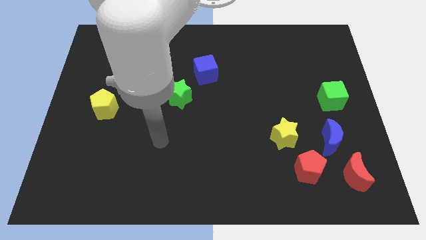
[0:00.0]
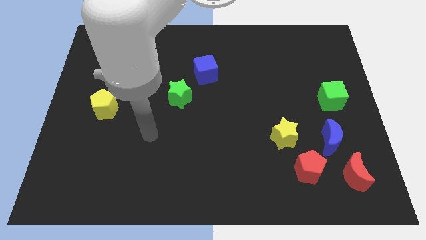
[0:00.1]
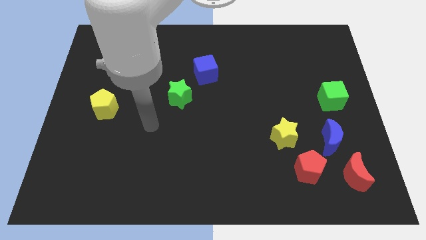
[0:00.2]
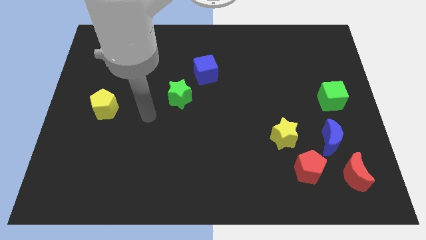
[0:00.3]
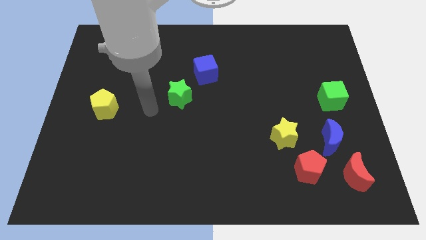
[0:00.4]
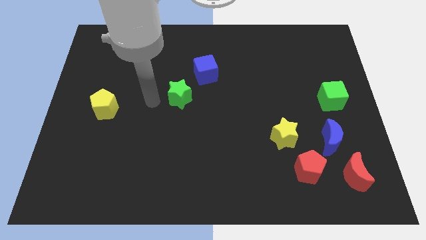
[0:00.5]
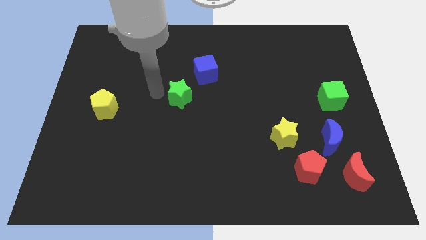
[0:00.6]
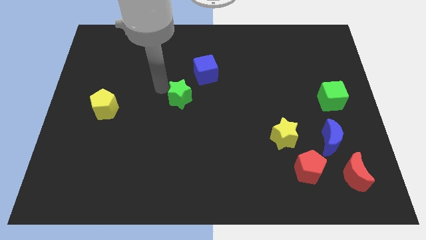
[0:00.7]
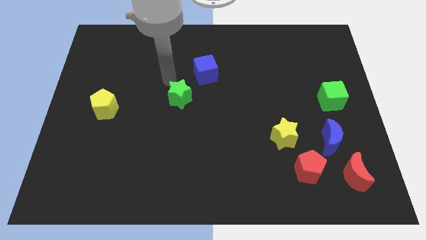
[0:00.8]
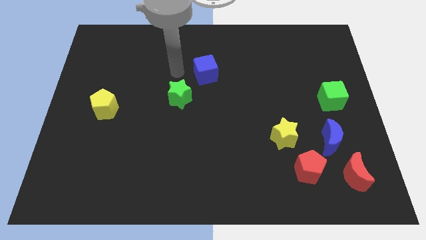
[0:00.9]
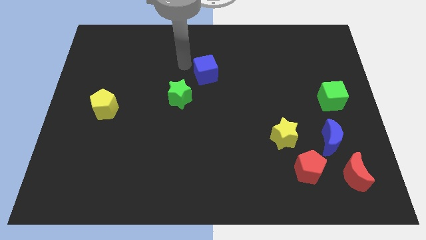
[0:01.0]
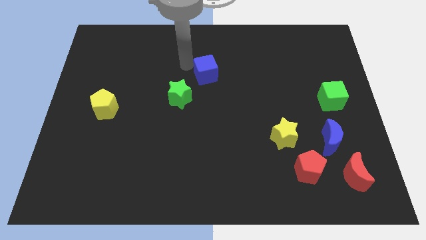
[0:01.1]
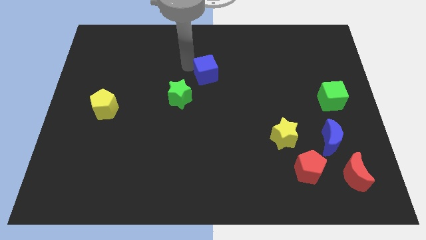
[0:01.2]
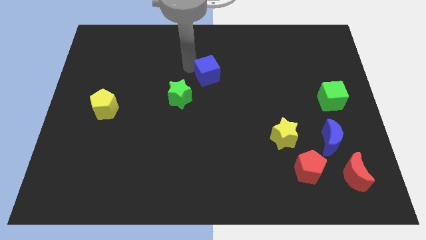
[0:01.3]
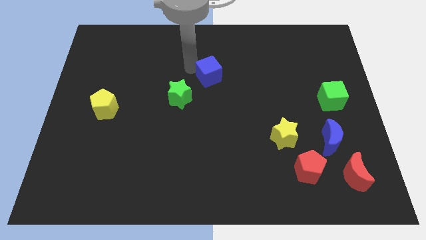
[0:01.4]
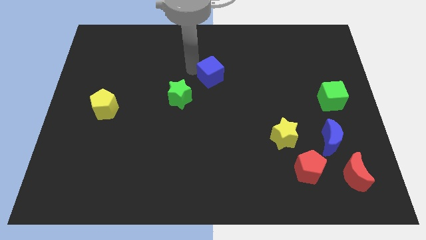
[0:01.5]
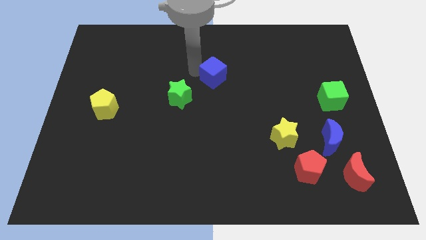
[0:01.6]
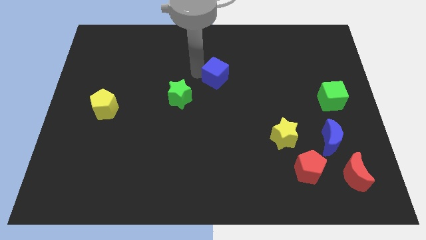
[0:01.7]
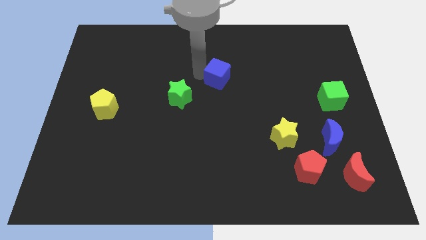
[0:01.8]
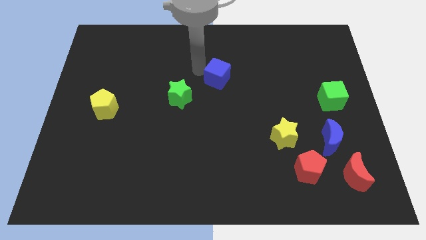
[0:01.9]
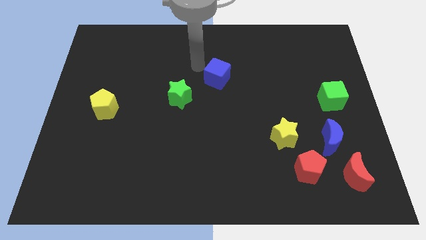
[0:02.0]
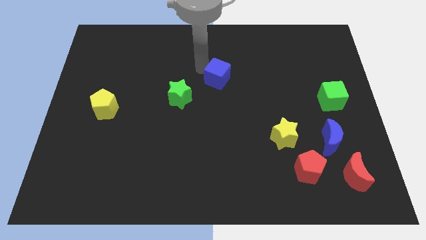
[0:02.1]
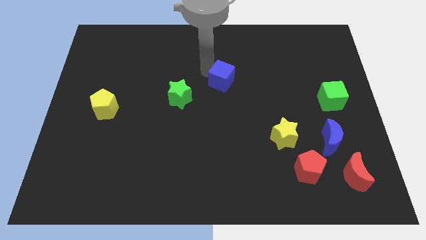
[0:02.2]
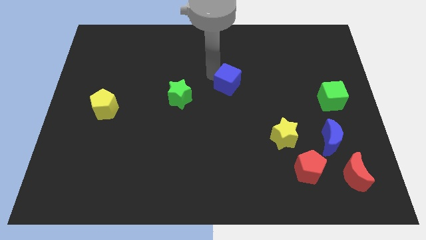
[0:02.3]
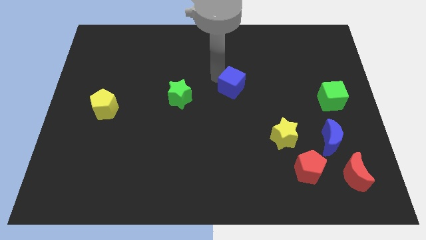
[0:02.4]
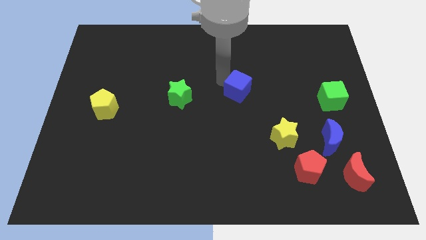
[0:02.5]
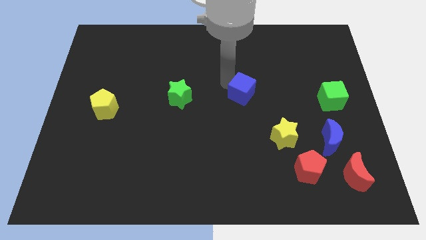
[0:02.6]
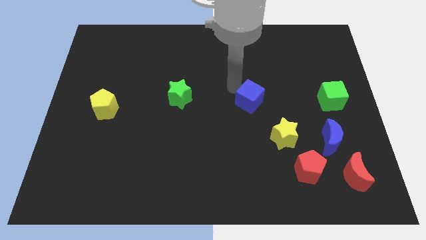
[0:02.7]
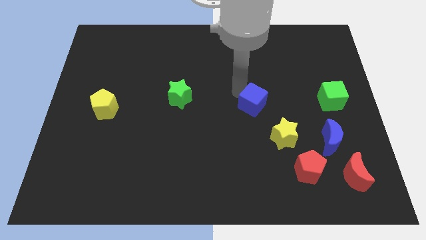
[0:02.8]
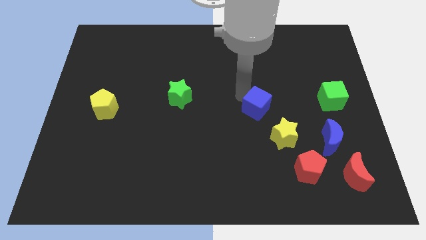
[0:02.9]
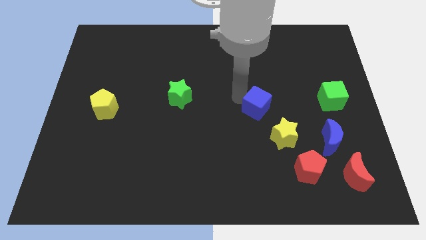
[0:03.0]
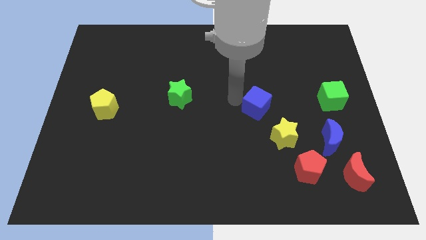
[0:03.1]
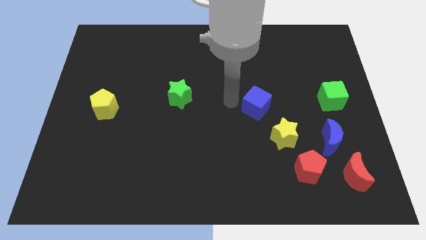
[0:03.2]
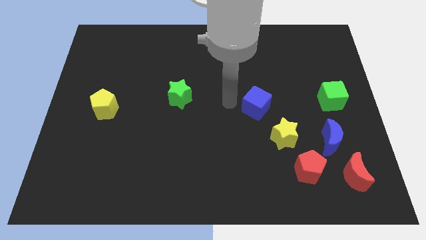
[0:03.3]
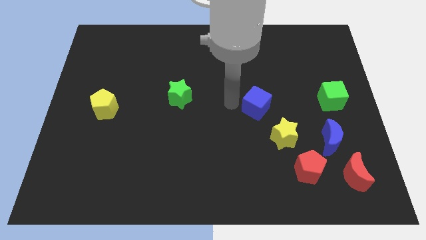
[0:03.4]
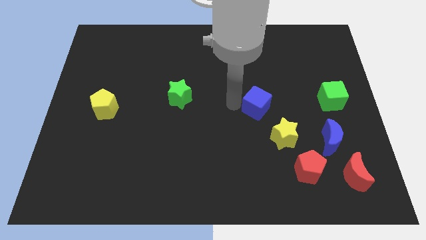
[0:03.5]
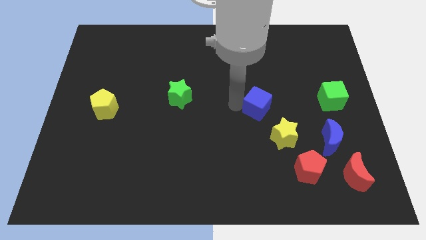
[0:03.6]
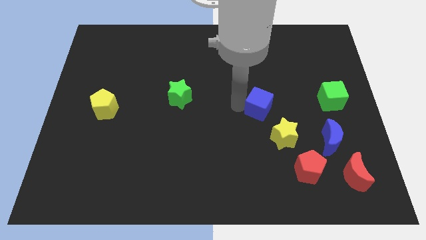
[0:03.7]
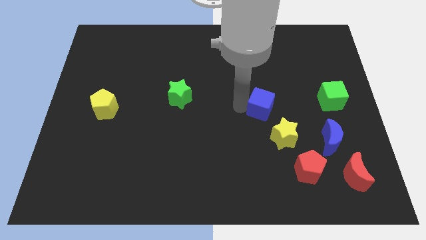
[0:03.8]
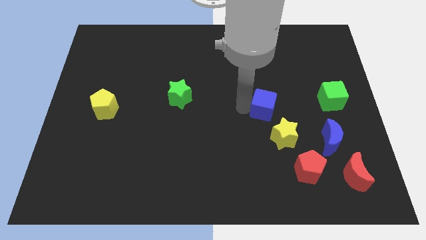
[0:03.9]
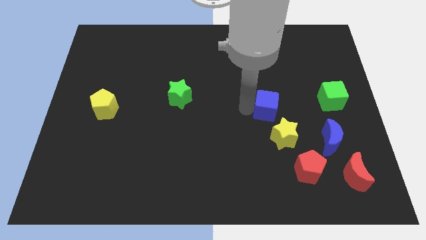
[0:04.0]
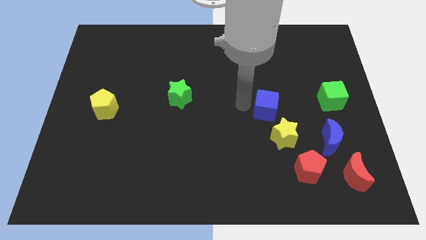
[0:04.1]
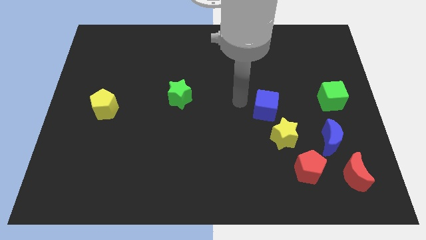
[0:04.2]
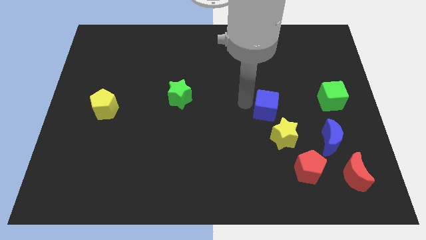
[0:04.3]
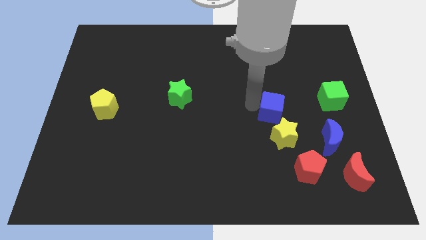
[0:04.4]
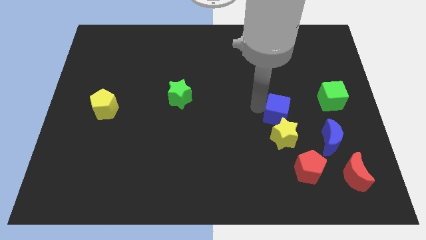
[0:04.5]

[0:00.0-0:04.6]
move the blue cube diagonally downwards and right

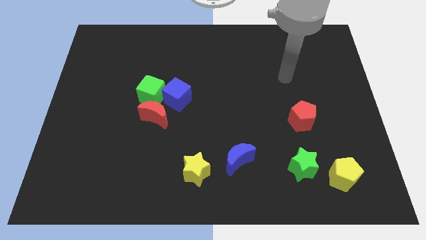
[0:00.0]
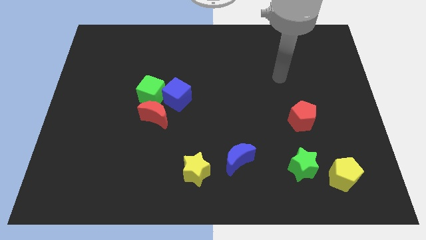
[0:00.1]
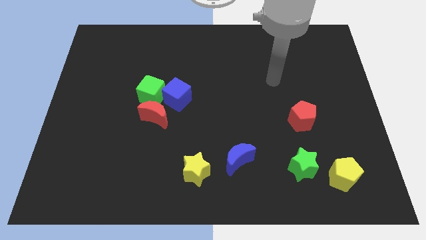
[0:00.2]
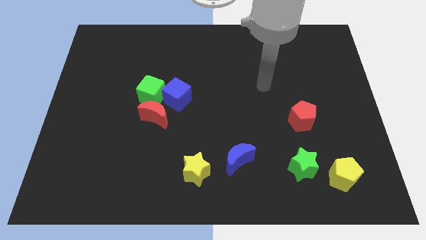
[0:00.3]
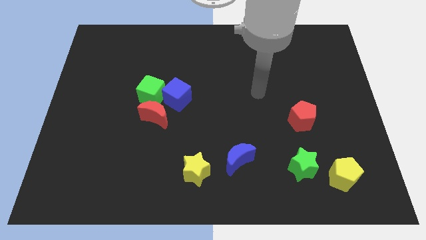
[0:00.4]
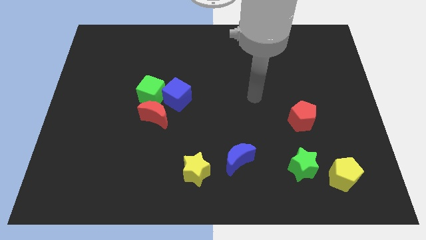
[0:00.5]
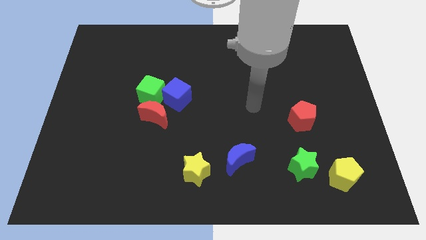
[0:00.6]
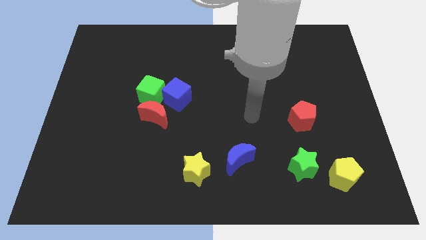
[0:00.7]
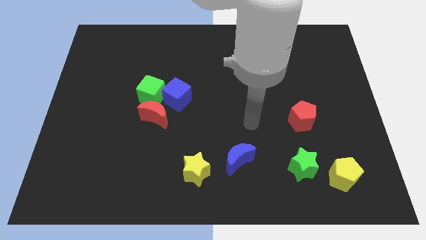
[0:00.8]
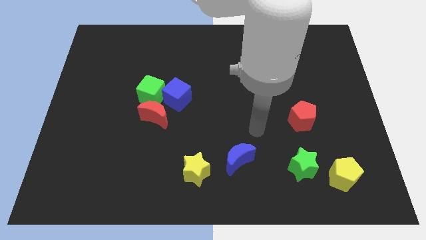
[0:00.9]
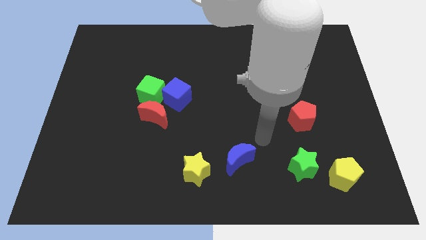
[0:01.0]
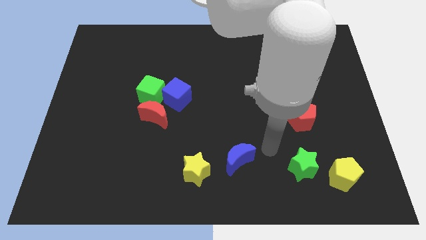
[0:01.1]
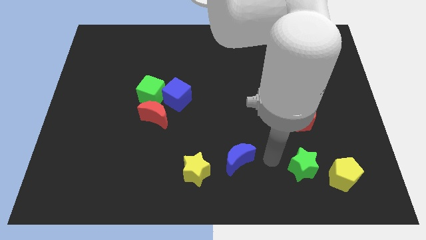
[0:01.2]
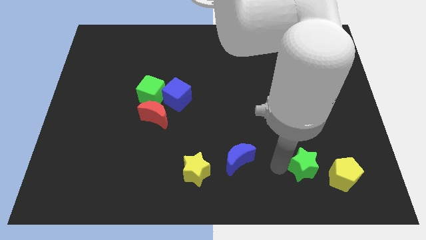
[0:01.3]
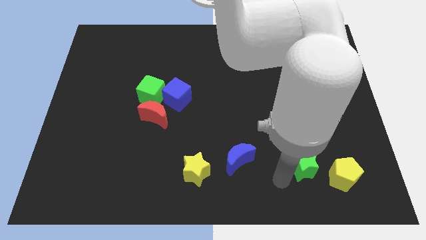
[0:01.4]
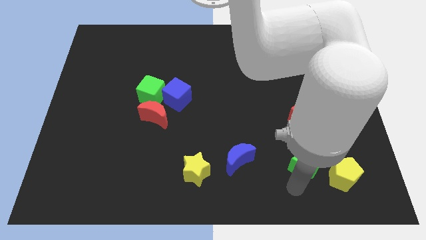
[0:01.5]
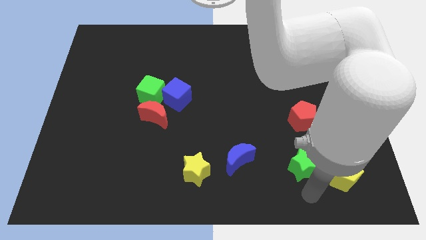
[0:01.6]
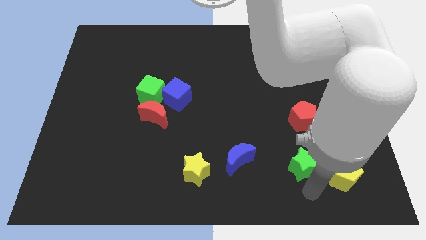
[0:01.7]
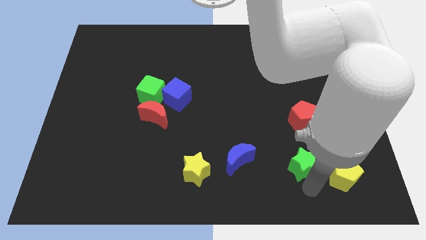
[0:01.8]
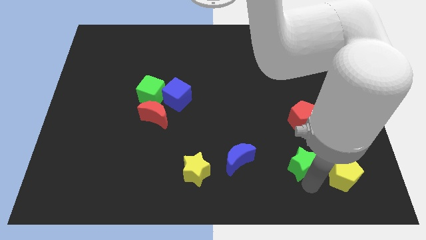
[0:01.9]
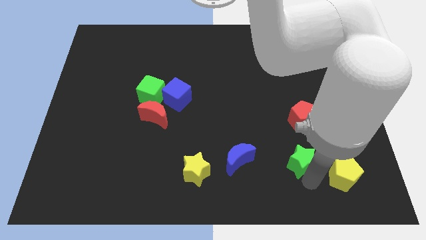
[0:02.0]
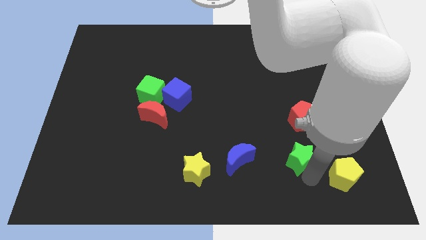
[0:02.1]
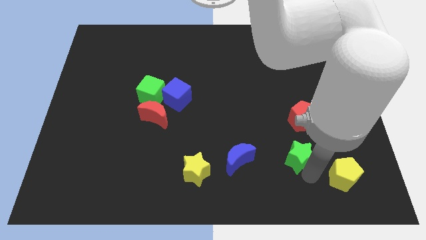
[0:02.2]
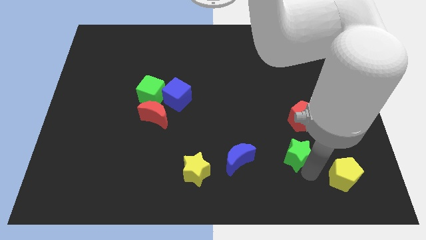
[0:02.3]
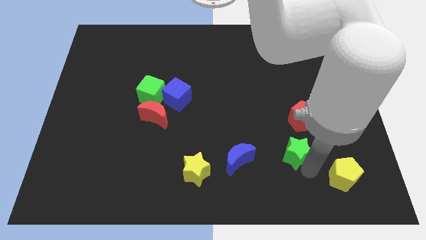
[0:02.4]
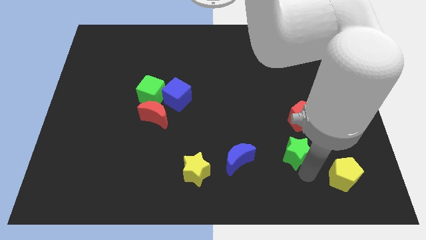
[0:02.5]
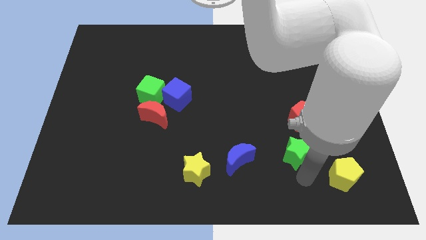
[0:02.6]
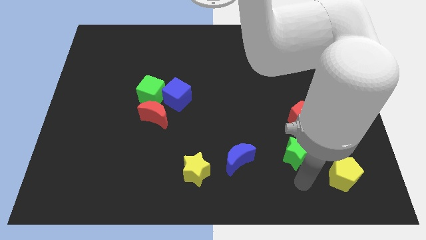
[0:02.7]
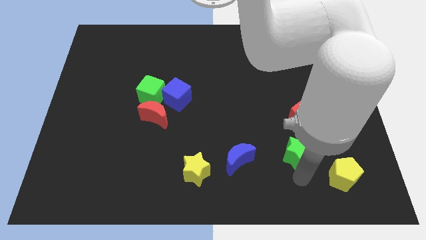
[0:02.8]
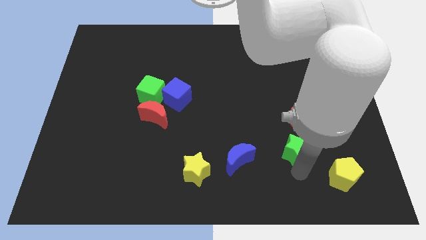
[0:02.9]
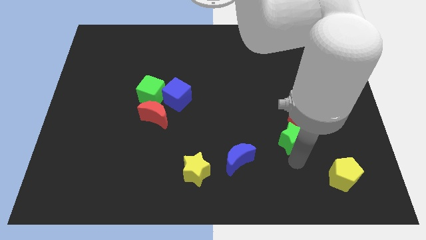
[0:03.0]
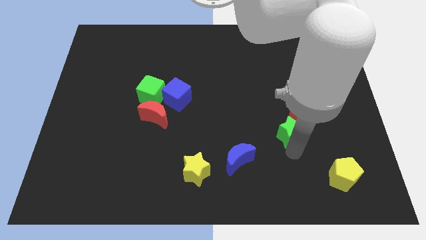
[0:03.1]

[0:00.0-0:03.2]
slightly slide the green star upwards

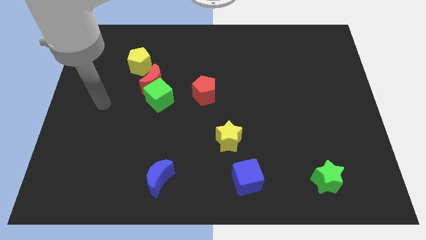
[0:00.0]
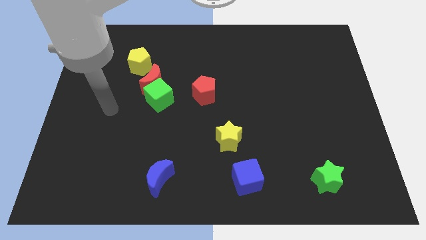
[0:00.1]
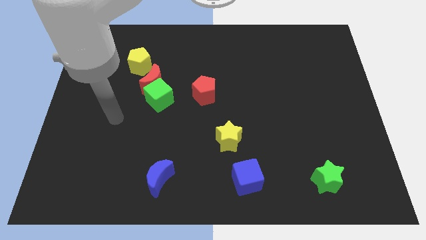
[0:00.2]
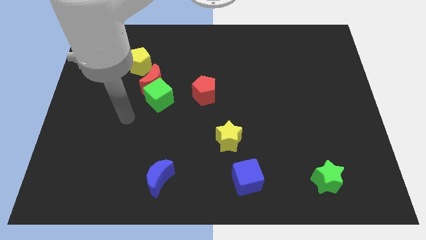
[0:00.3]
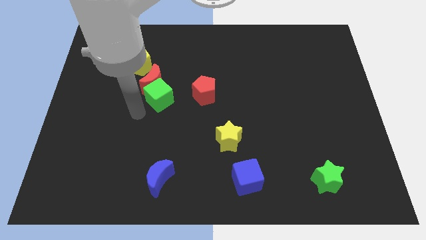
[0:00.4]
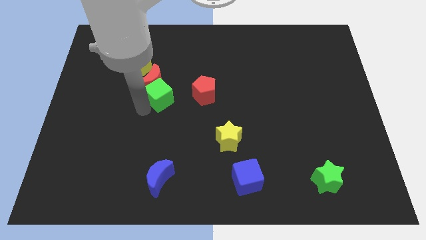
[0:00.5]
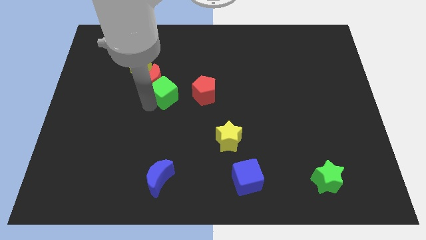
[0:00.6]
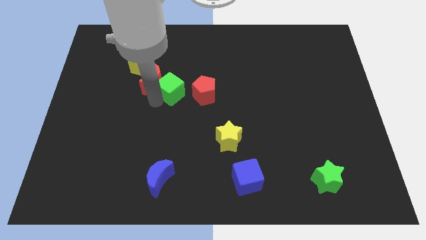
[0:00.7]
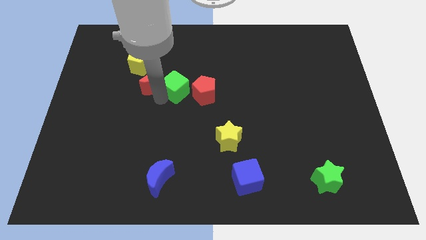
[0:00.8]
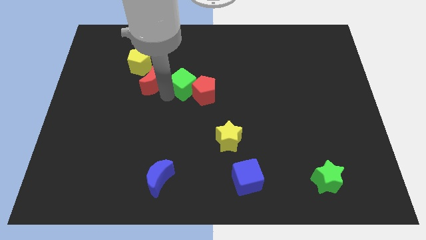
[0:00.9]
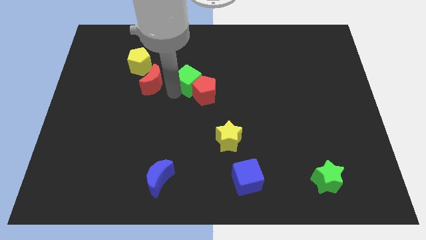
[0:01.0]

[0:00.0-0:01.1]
push the green cube up and then right a little bit
